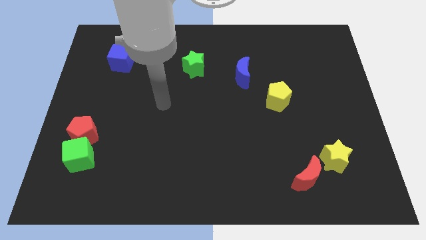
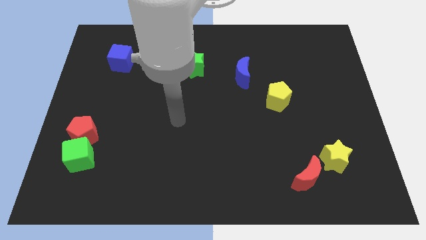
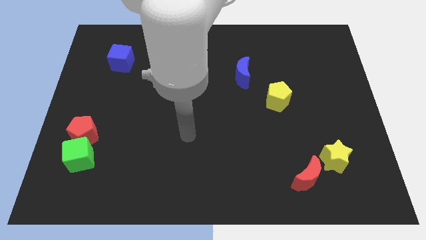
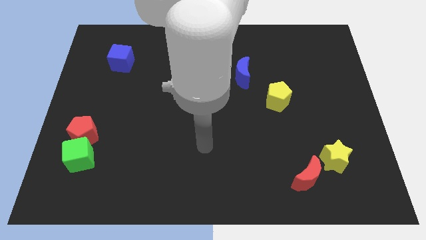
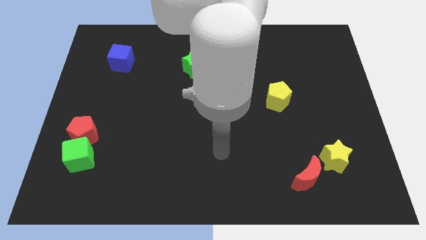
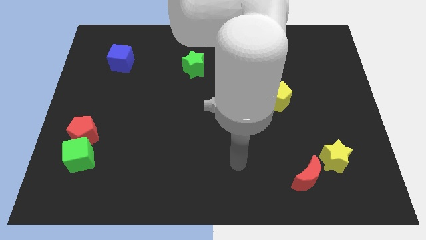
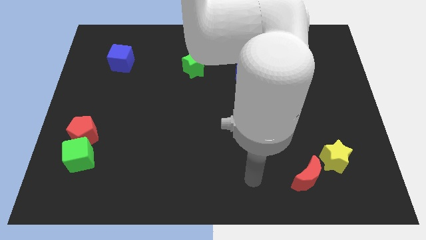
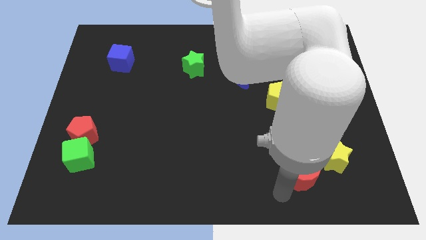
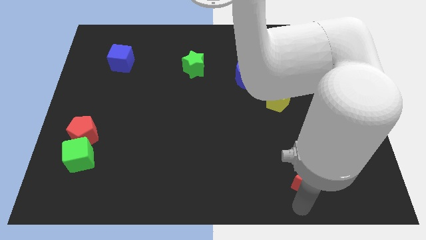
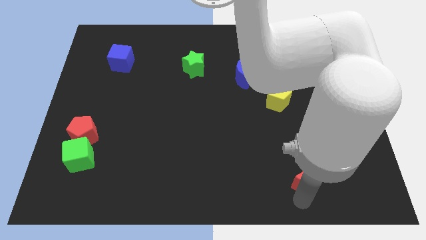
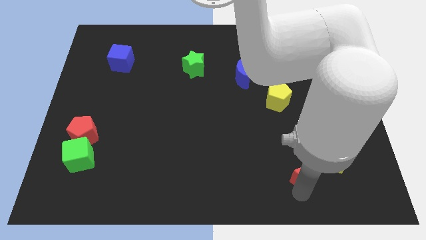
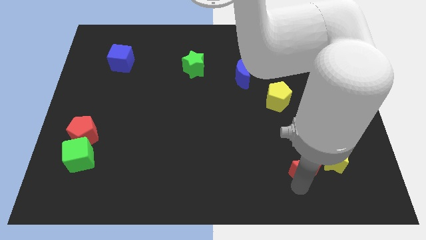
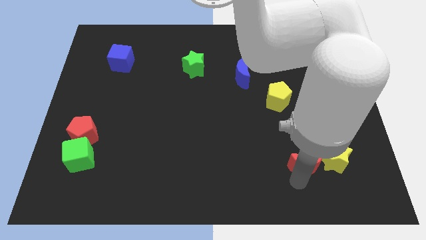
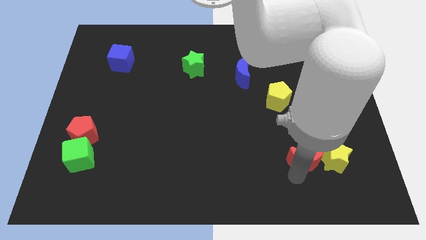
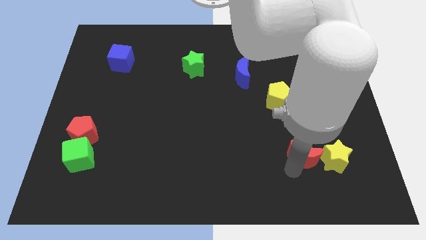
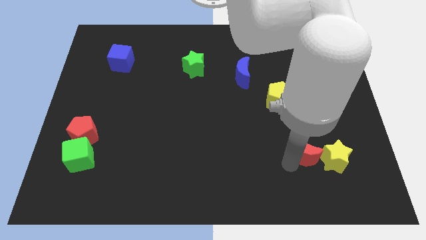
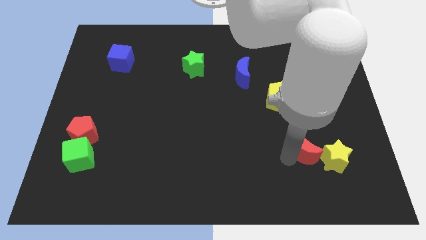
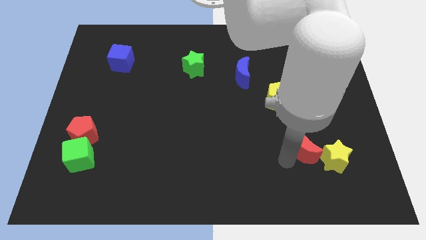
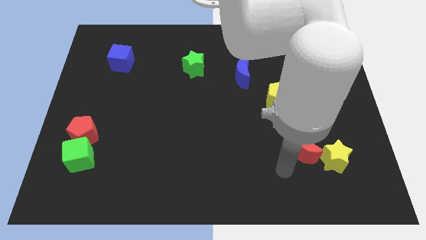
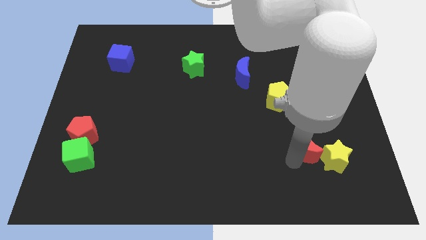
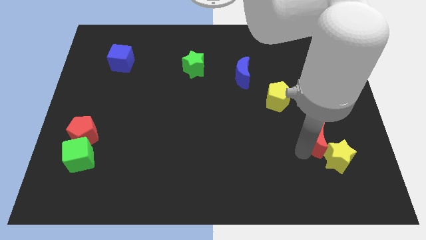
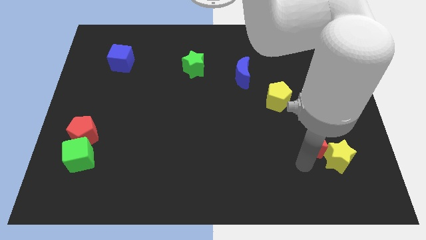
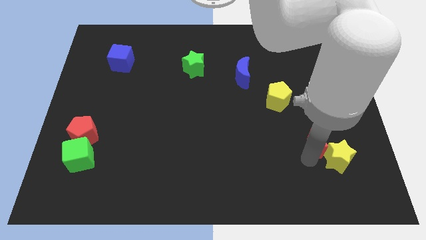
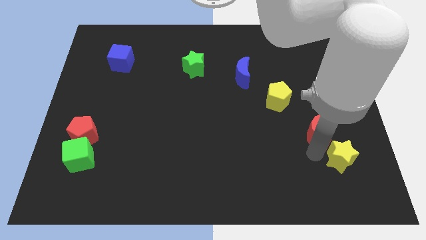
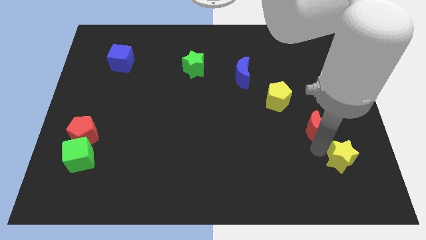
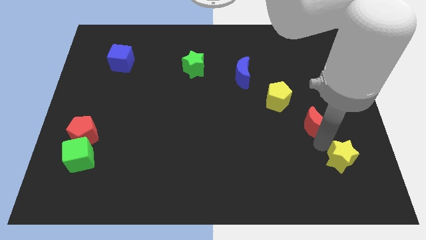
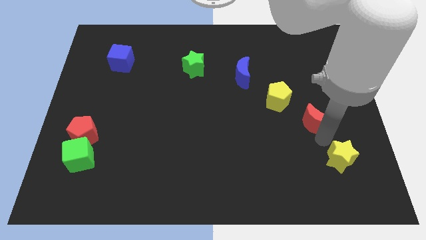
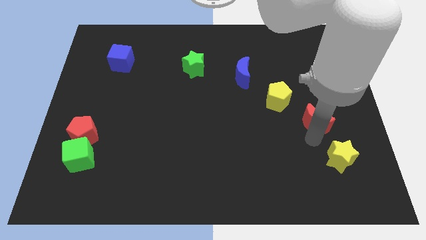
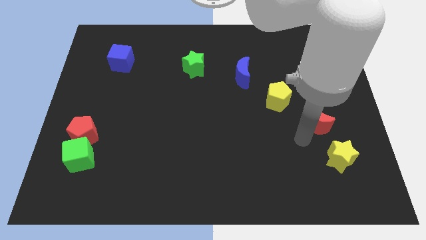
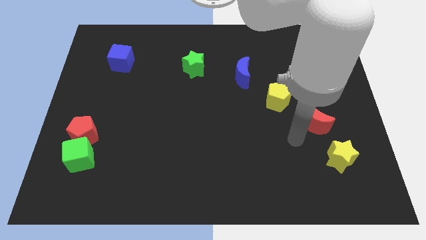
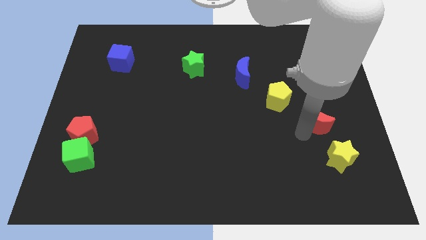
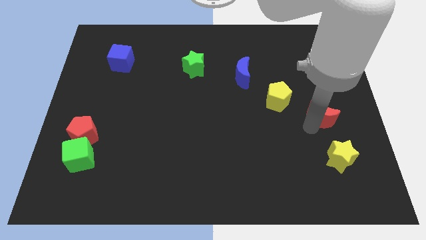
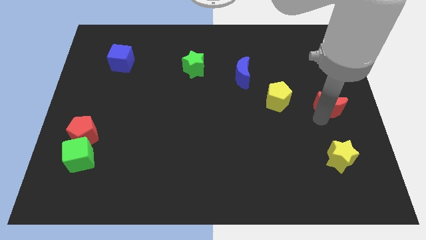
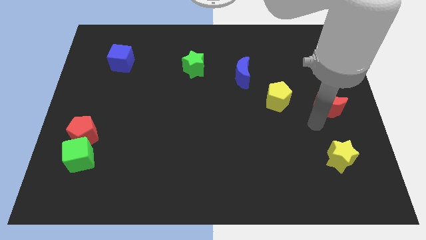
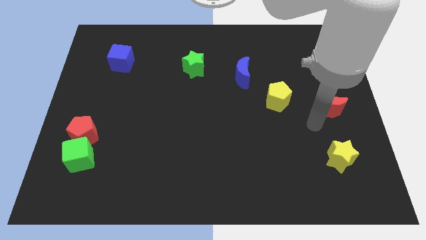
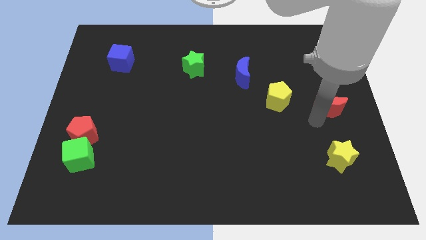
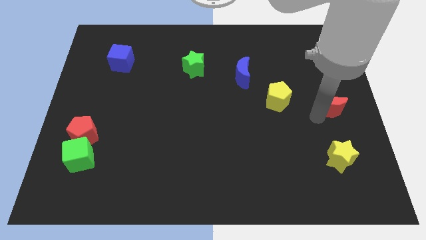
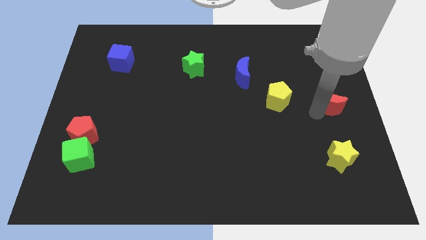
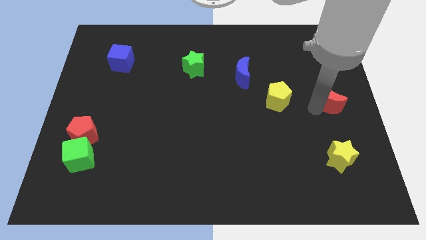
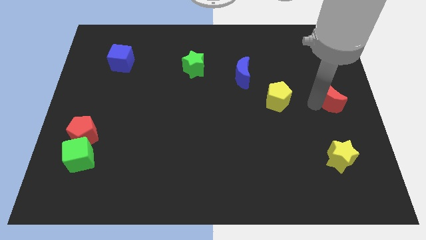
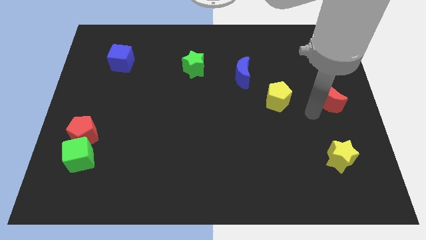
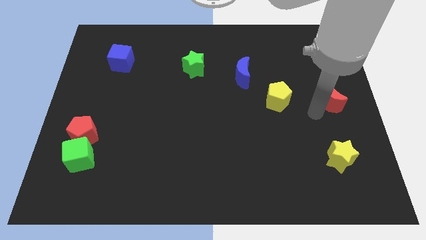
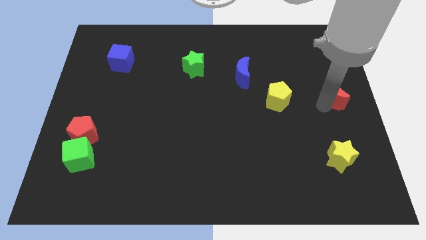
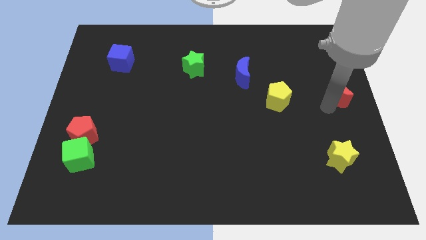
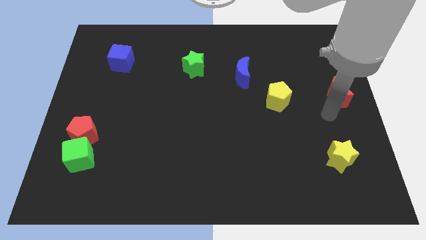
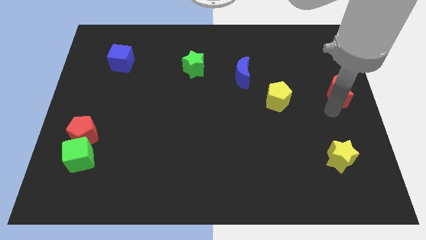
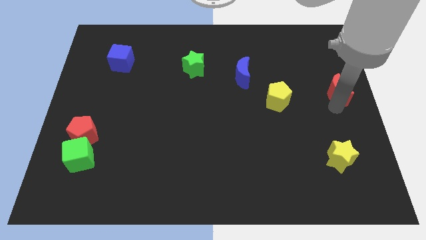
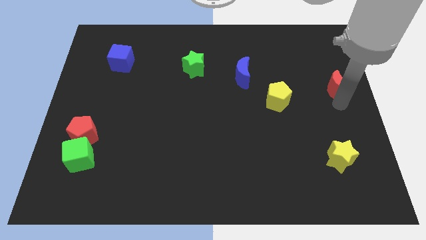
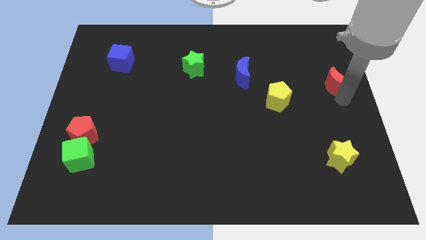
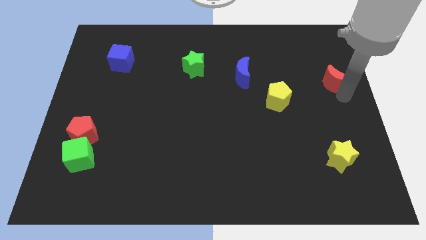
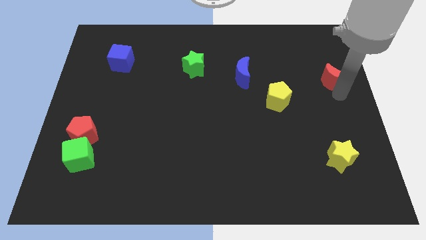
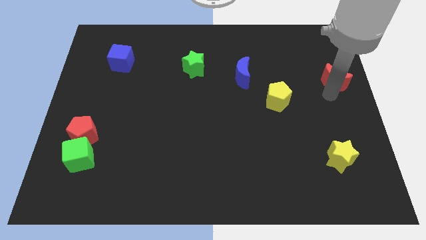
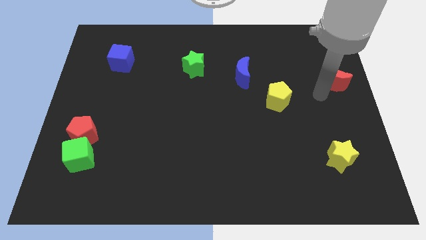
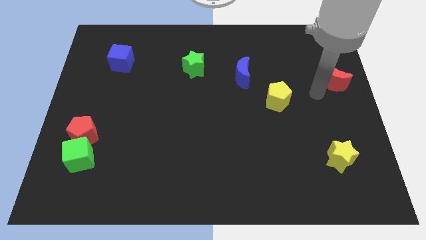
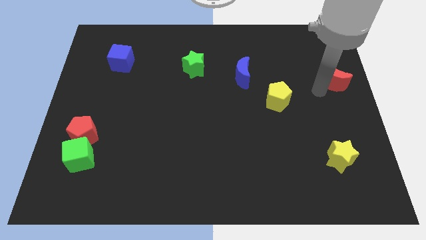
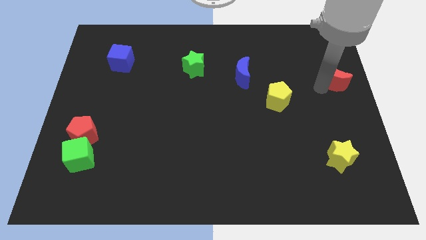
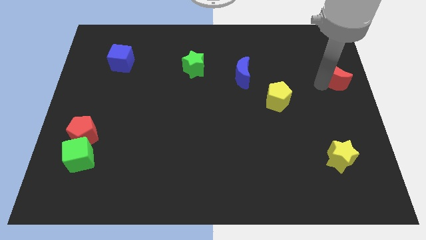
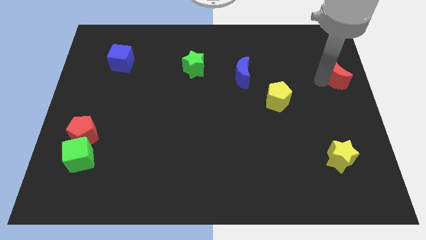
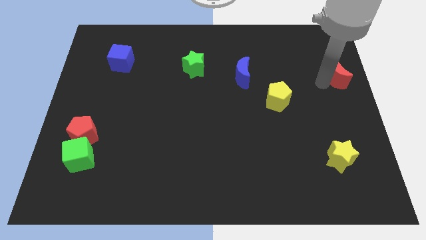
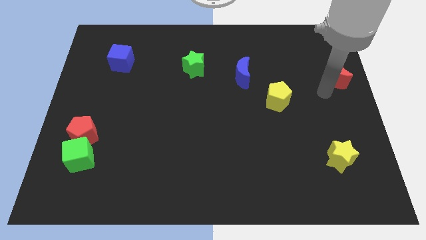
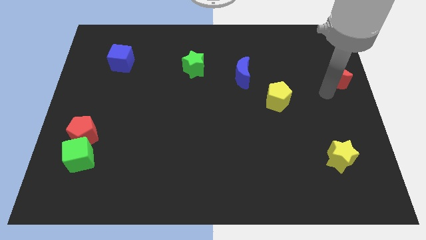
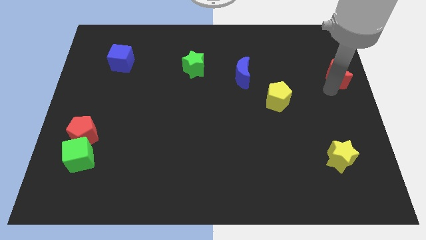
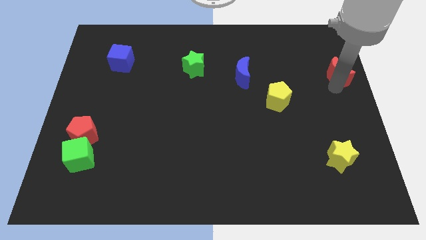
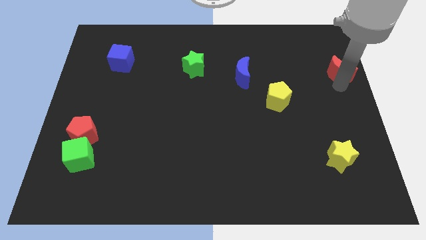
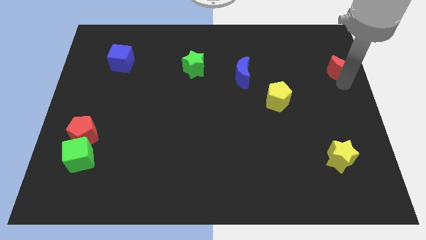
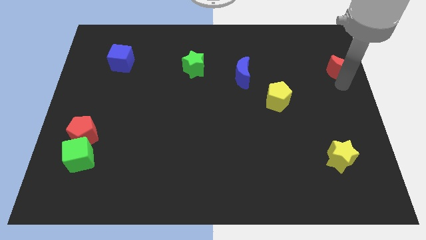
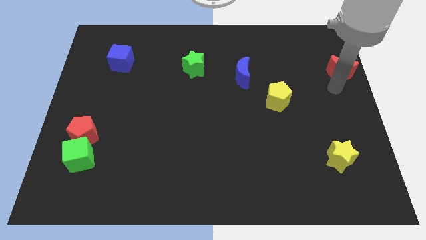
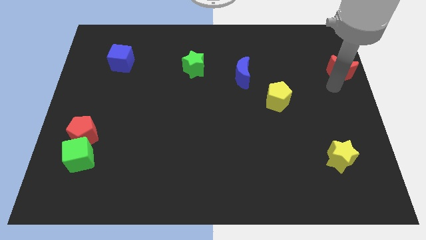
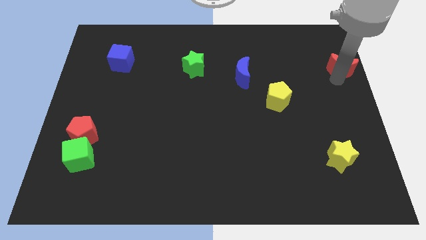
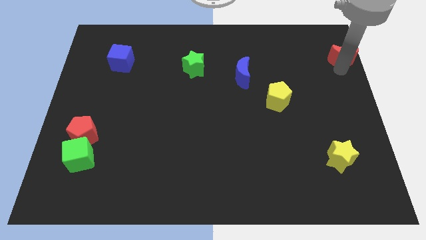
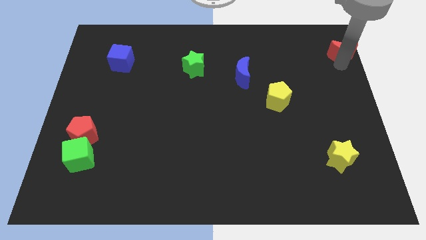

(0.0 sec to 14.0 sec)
move the red moon to the top right corner
